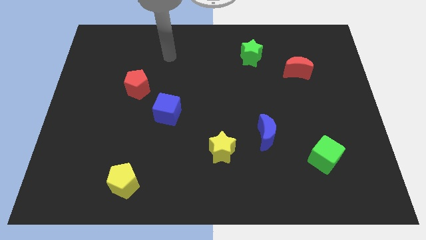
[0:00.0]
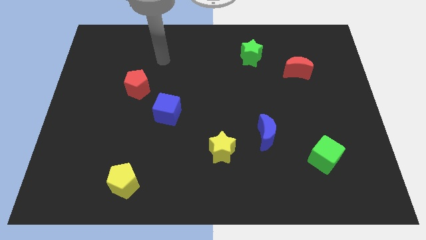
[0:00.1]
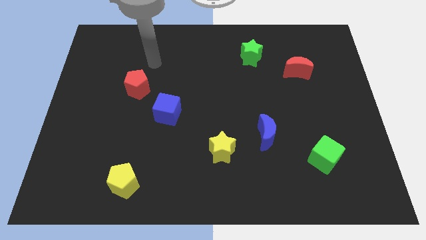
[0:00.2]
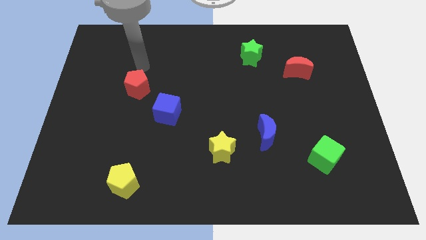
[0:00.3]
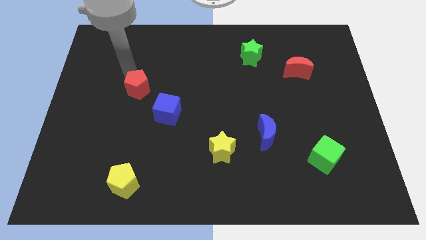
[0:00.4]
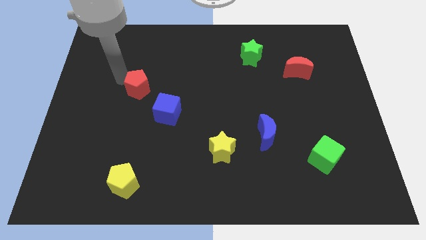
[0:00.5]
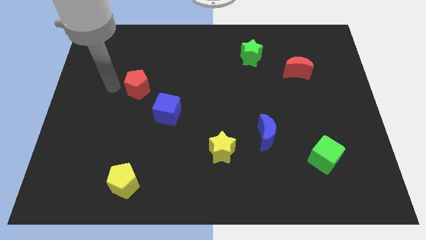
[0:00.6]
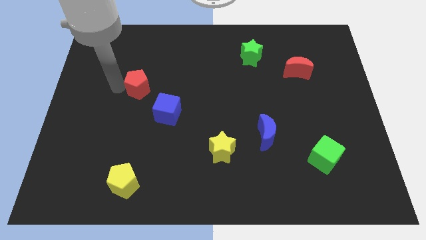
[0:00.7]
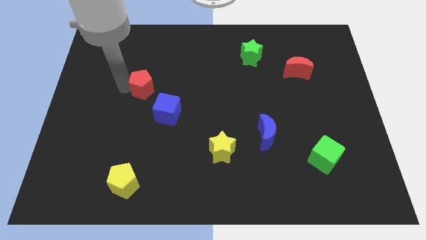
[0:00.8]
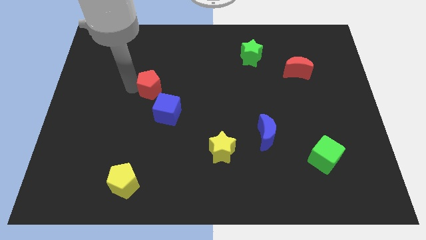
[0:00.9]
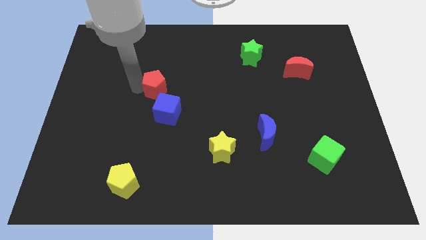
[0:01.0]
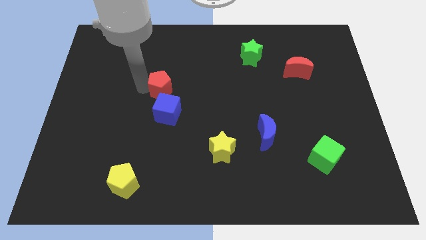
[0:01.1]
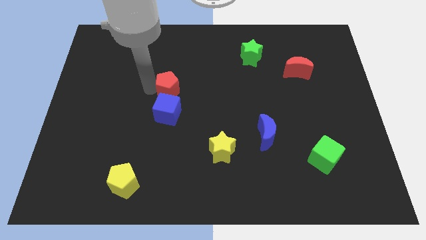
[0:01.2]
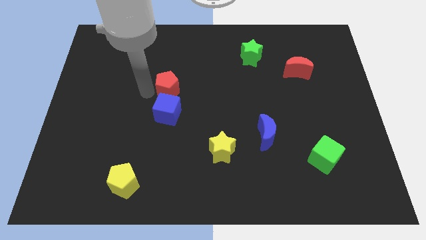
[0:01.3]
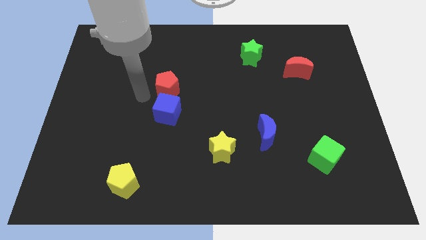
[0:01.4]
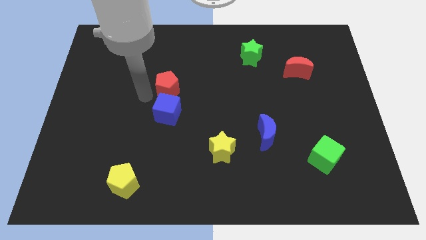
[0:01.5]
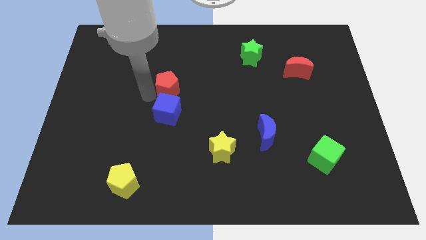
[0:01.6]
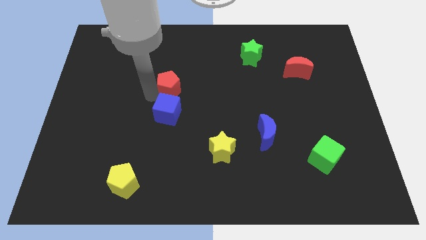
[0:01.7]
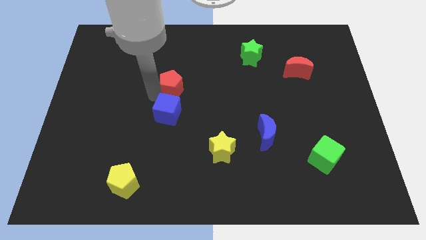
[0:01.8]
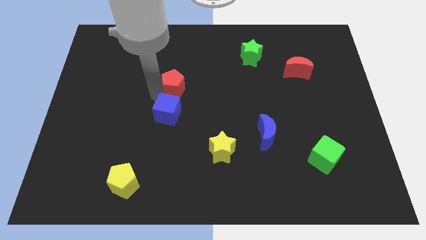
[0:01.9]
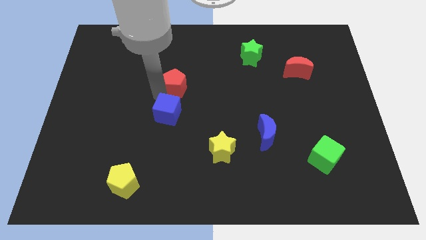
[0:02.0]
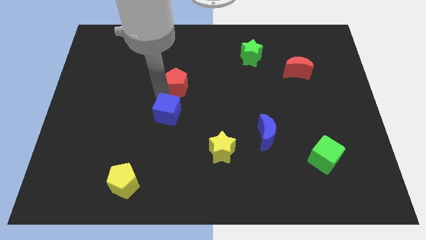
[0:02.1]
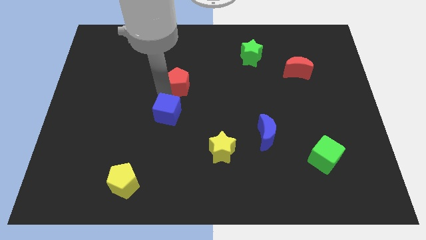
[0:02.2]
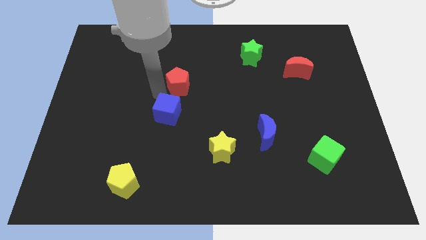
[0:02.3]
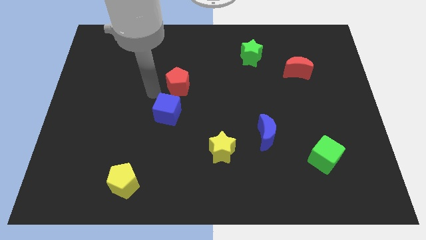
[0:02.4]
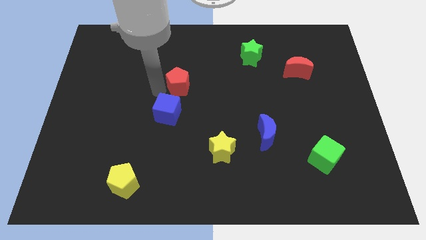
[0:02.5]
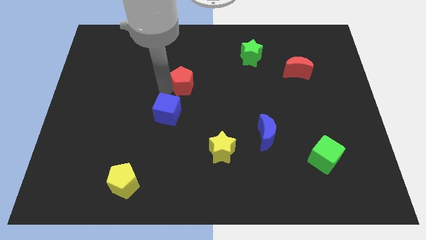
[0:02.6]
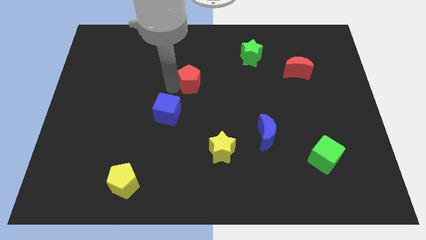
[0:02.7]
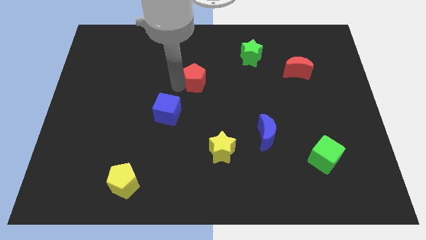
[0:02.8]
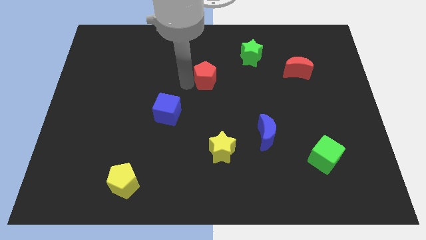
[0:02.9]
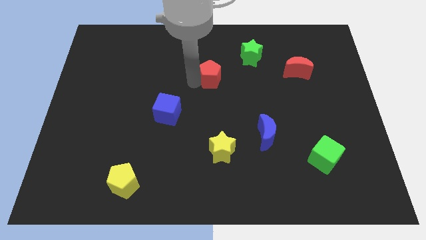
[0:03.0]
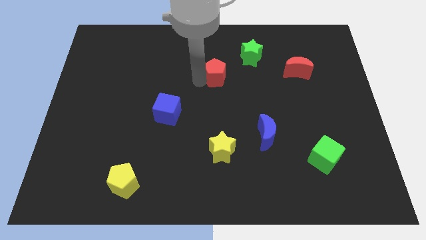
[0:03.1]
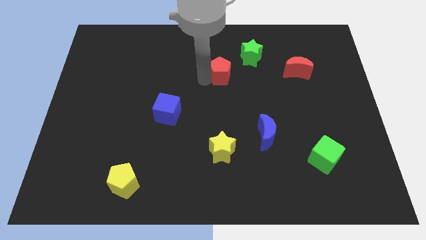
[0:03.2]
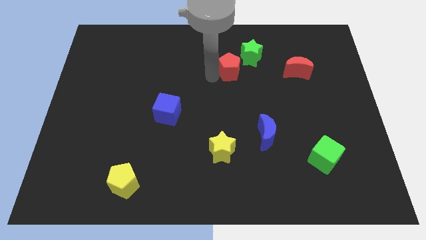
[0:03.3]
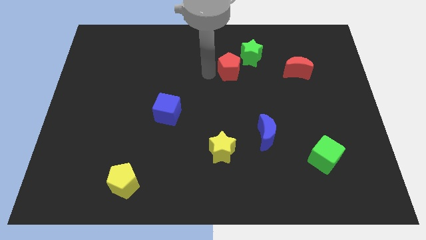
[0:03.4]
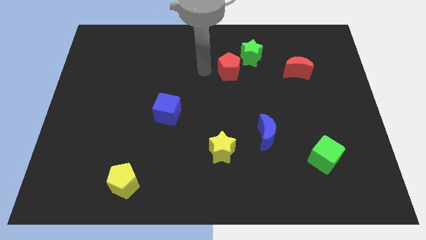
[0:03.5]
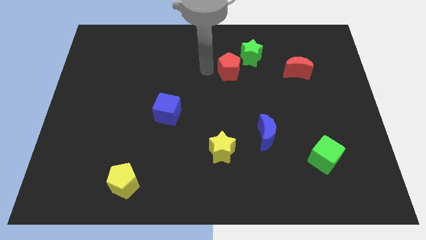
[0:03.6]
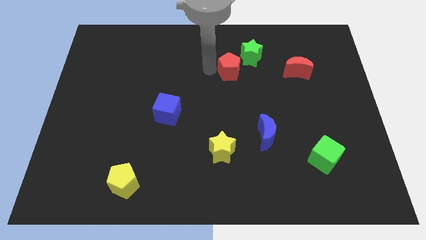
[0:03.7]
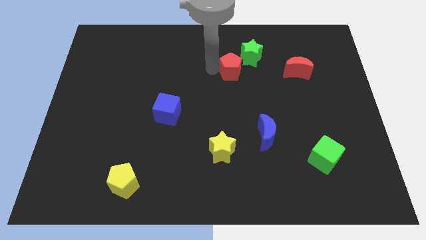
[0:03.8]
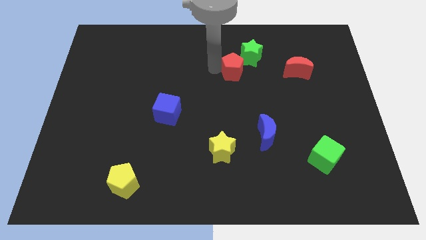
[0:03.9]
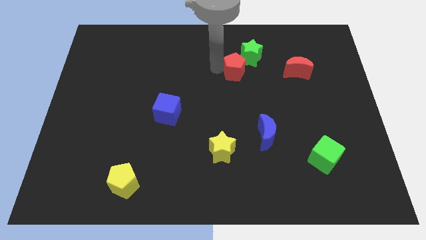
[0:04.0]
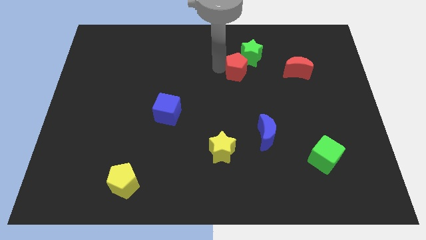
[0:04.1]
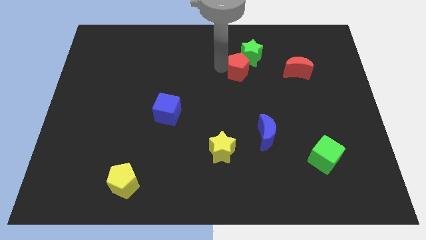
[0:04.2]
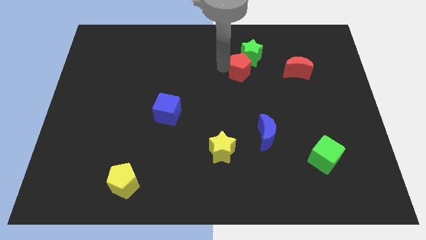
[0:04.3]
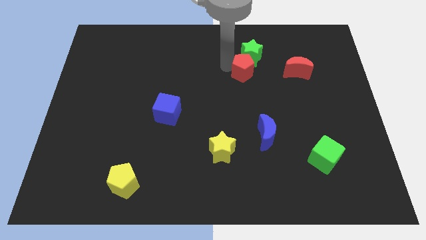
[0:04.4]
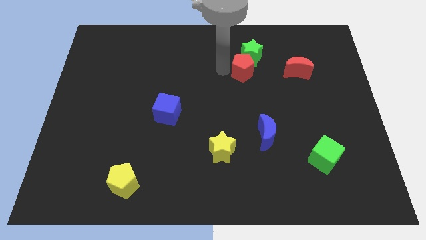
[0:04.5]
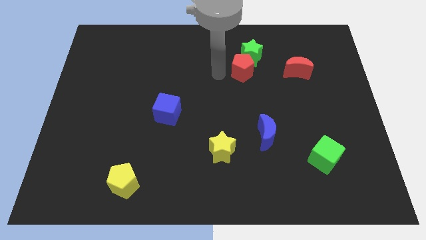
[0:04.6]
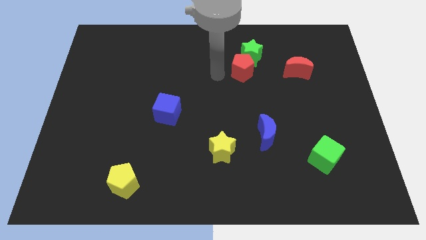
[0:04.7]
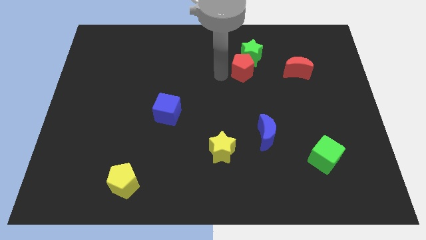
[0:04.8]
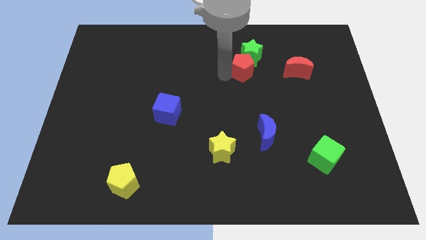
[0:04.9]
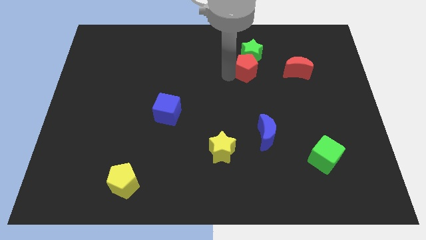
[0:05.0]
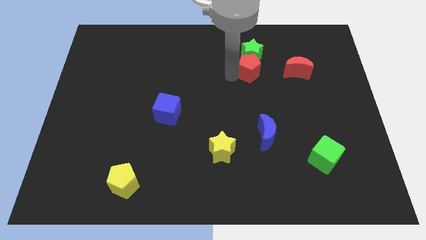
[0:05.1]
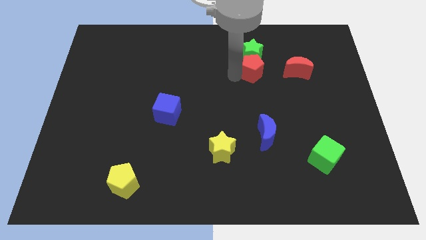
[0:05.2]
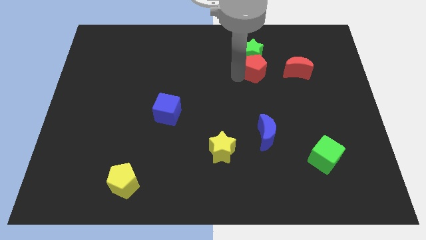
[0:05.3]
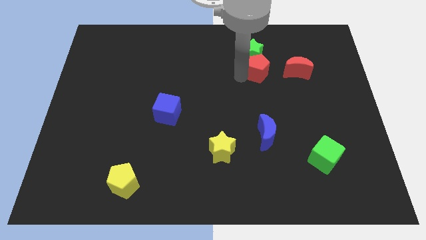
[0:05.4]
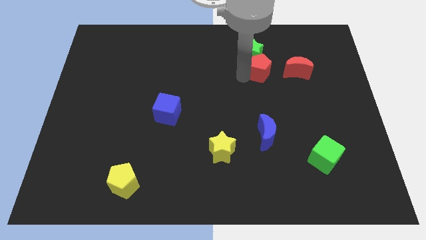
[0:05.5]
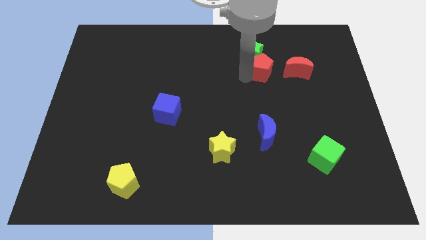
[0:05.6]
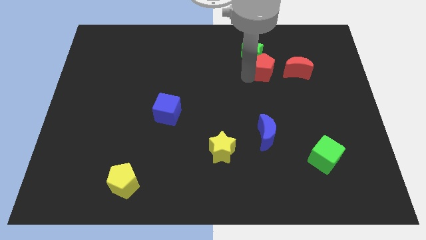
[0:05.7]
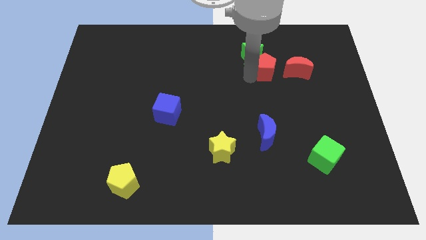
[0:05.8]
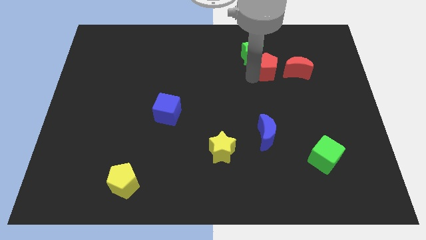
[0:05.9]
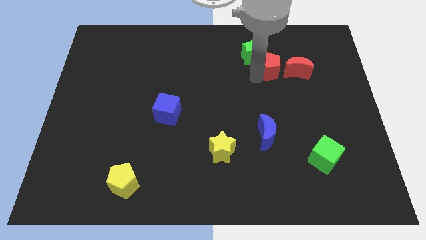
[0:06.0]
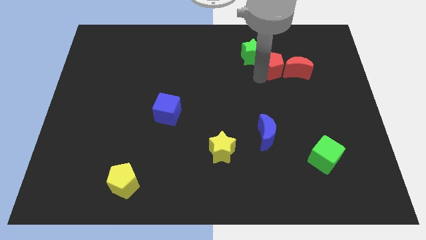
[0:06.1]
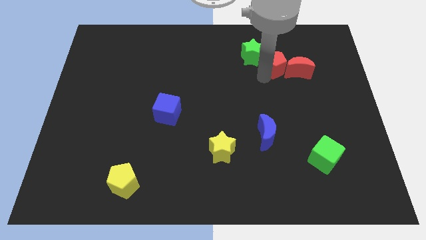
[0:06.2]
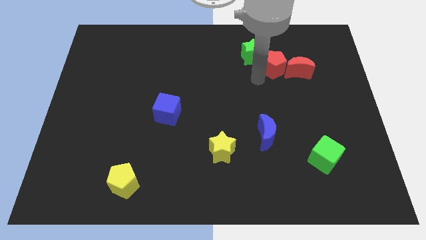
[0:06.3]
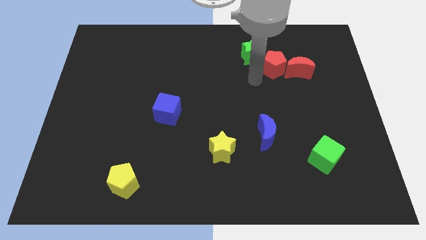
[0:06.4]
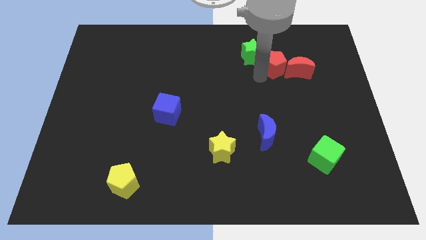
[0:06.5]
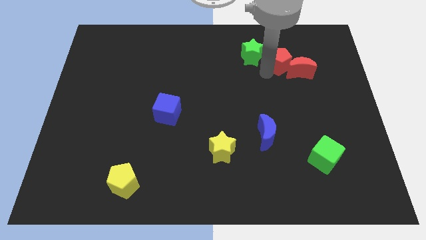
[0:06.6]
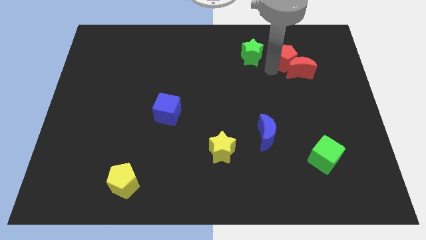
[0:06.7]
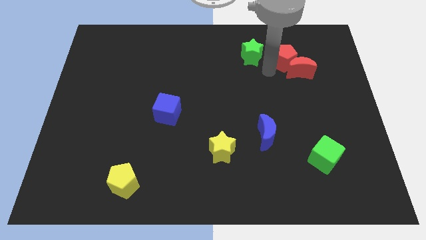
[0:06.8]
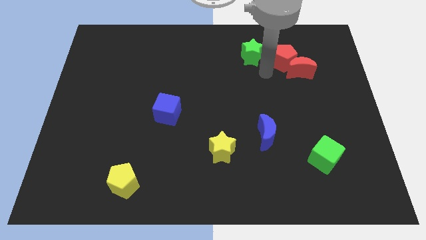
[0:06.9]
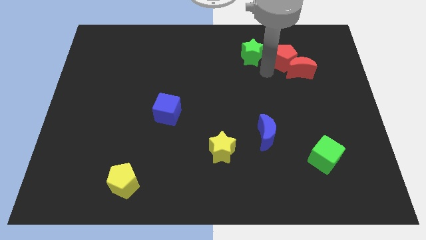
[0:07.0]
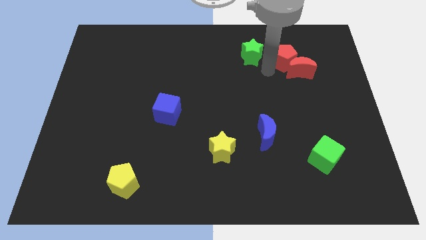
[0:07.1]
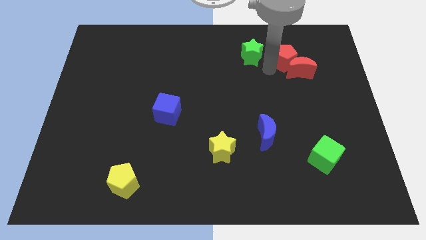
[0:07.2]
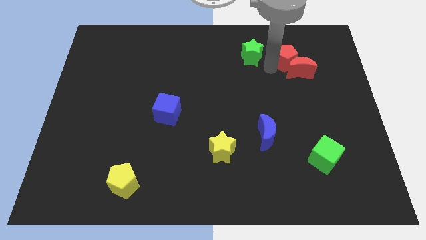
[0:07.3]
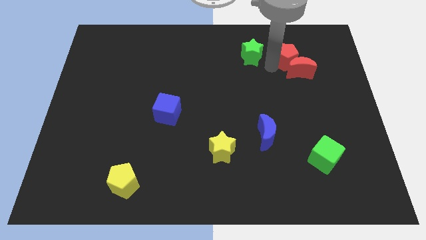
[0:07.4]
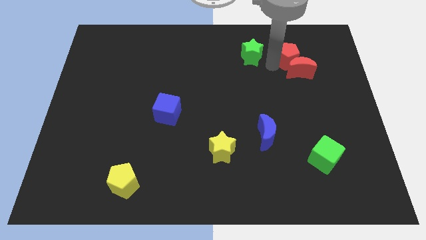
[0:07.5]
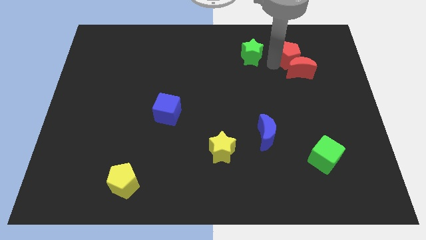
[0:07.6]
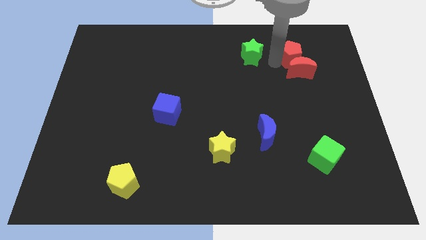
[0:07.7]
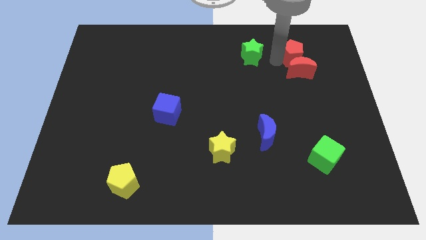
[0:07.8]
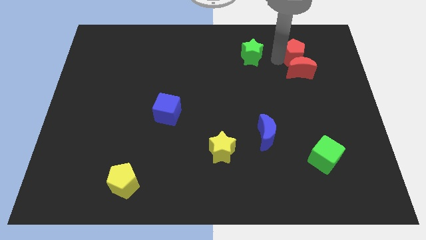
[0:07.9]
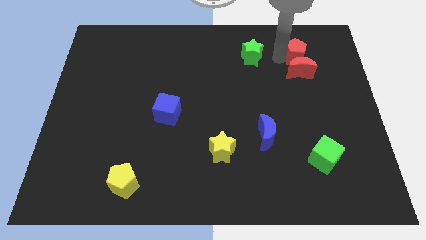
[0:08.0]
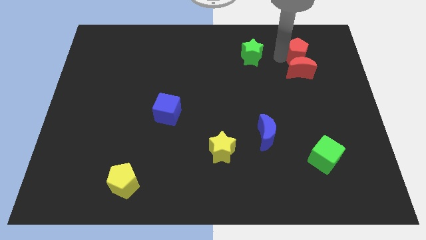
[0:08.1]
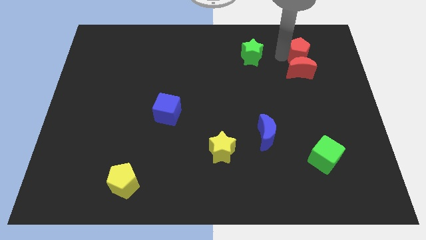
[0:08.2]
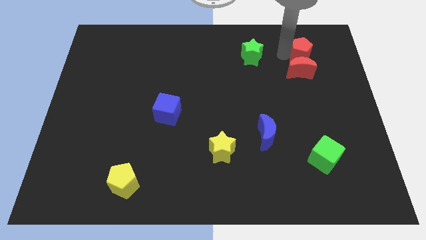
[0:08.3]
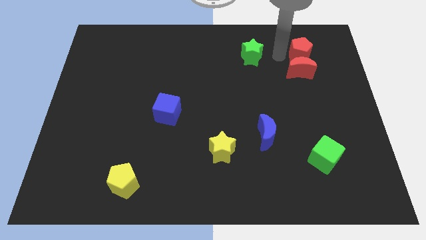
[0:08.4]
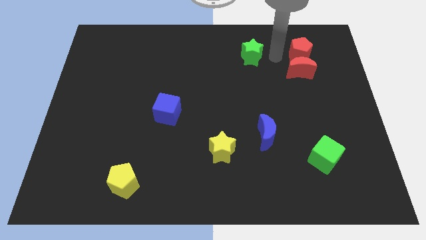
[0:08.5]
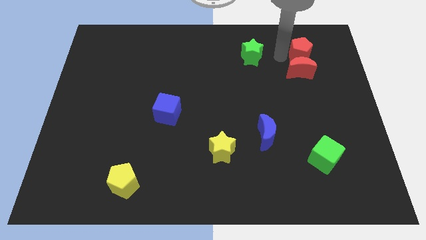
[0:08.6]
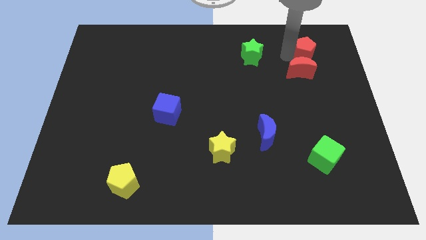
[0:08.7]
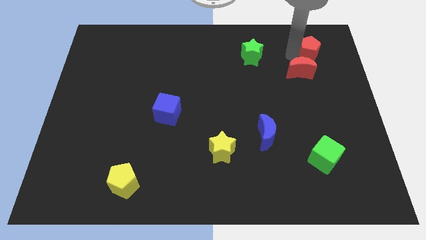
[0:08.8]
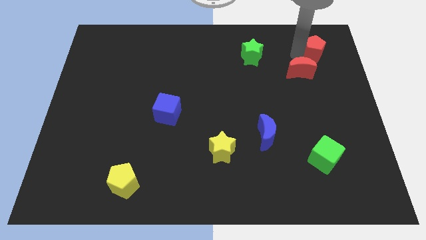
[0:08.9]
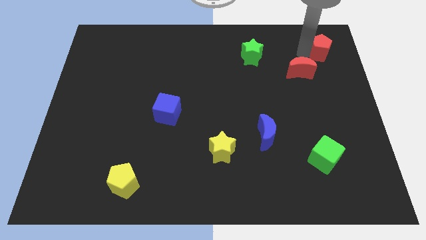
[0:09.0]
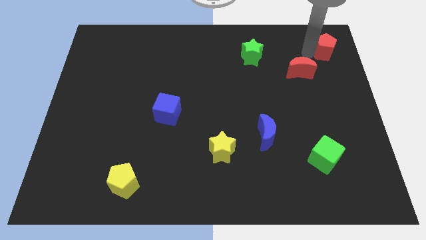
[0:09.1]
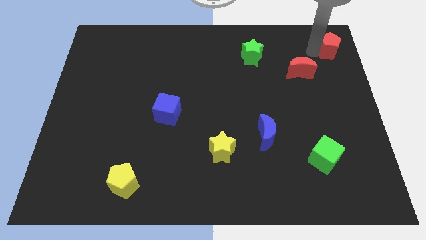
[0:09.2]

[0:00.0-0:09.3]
move the red pentagon to the upper right corner
